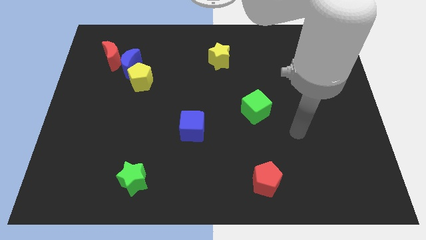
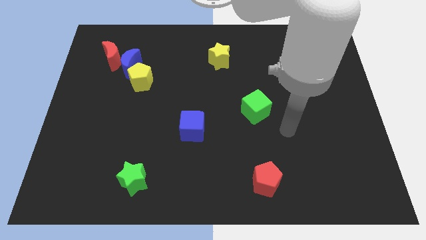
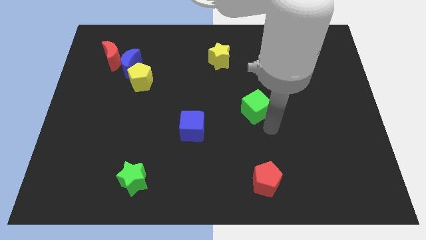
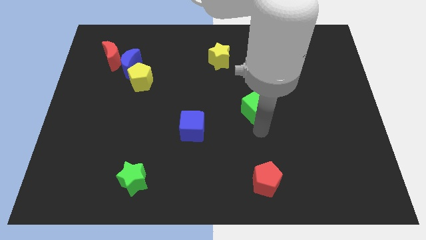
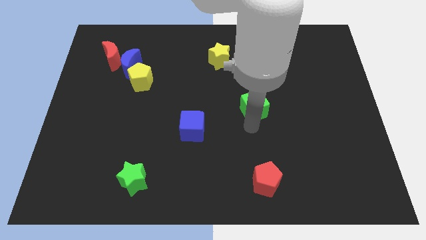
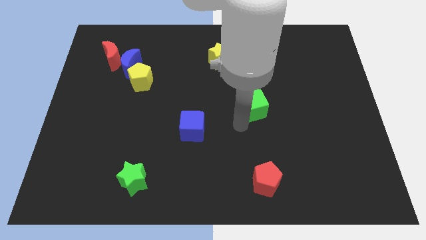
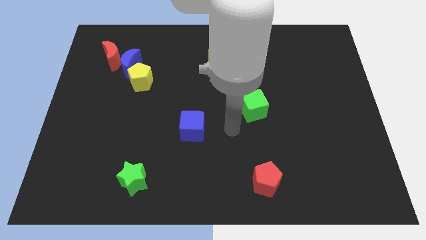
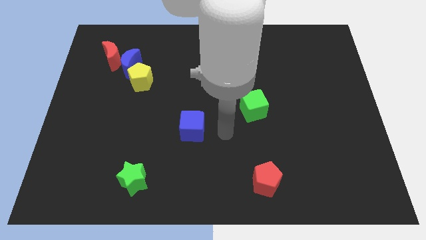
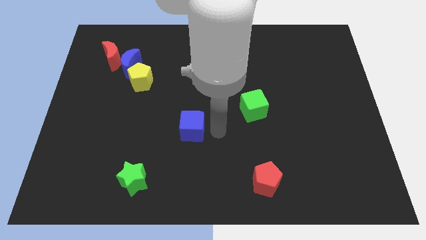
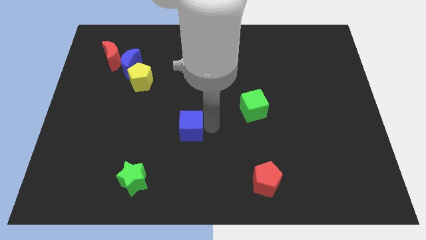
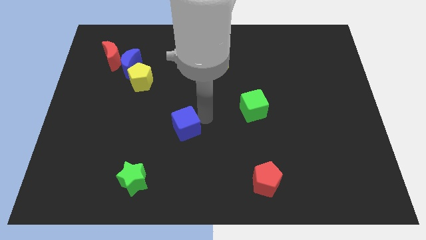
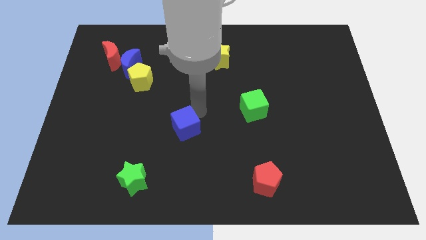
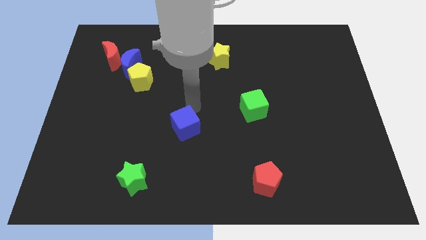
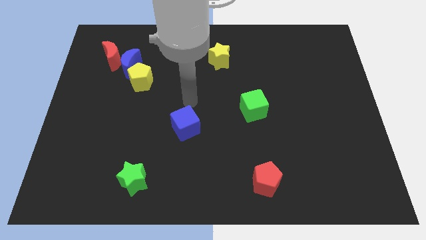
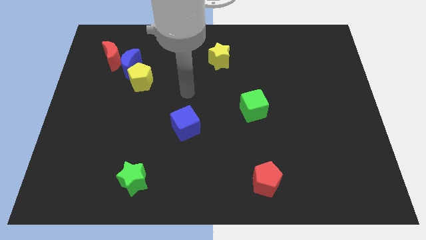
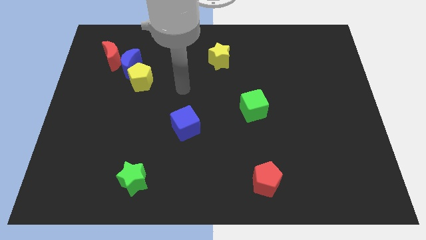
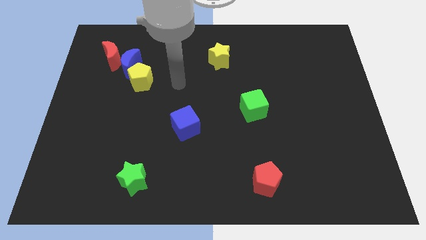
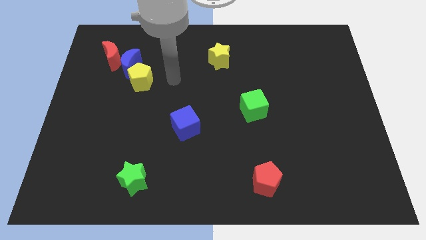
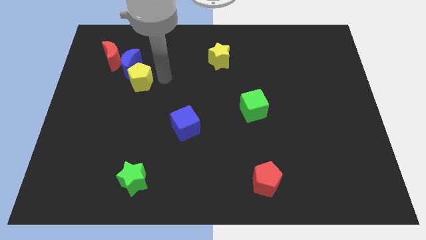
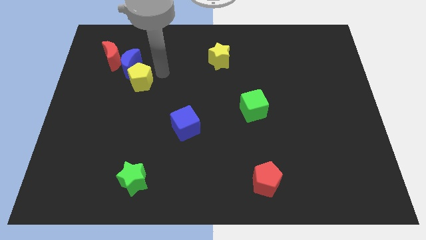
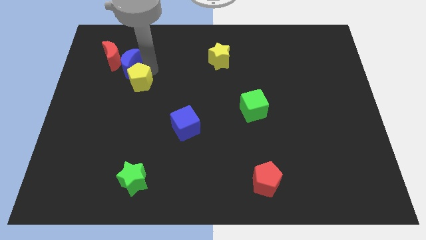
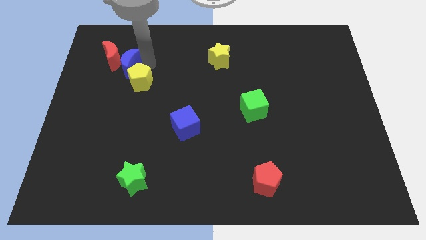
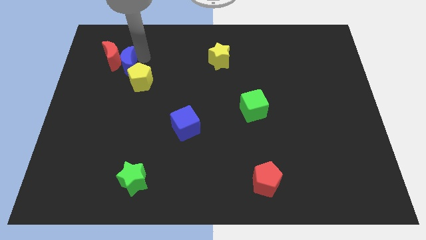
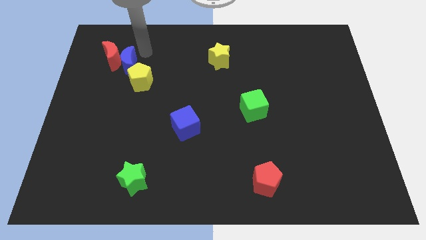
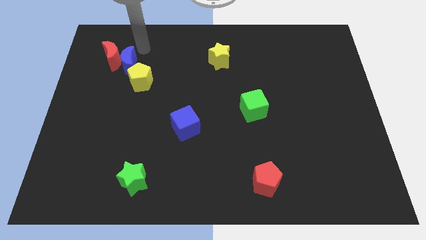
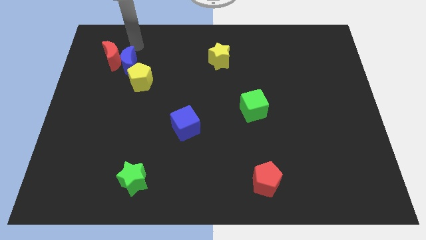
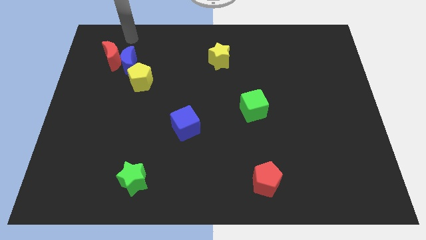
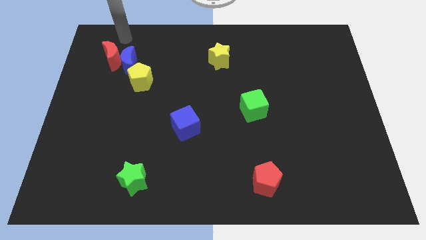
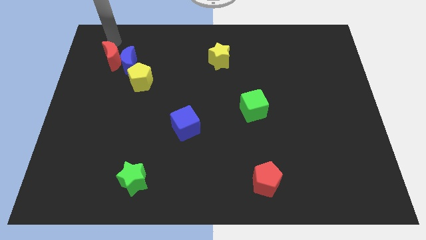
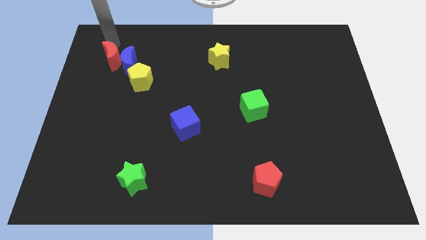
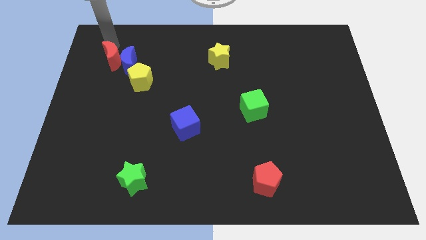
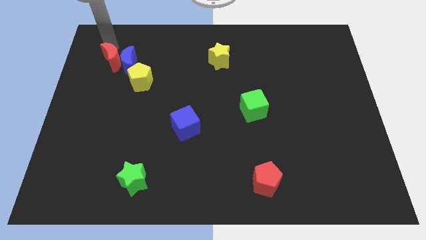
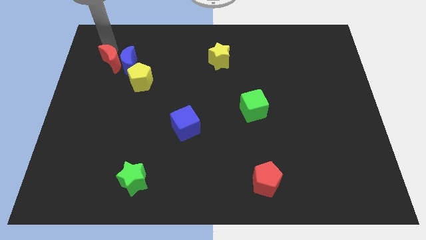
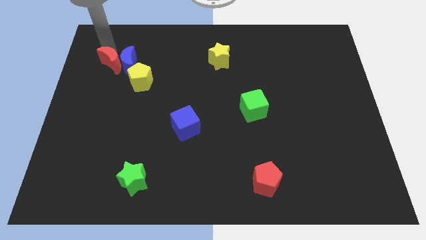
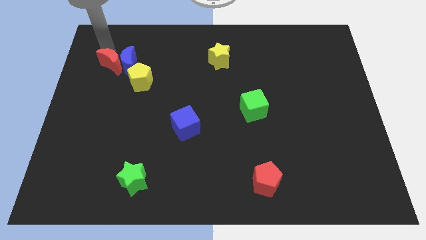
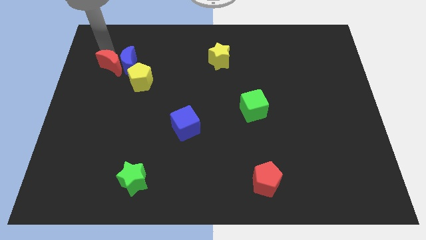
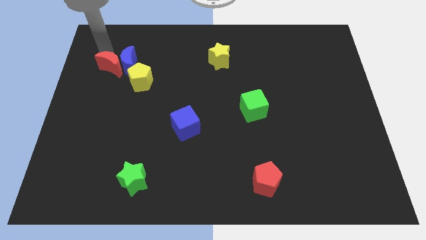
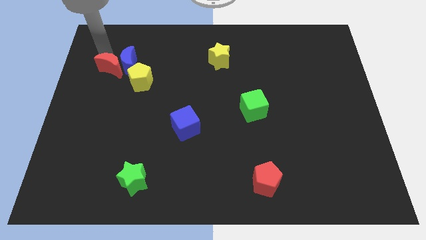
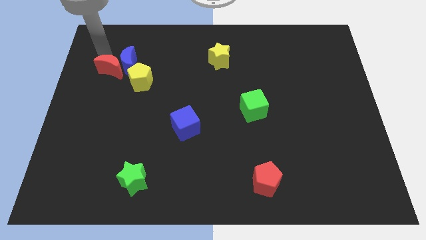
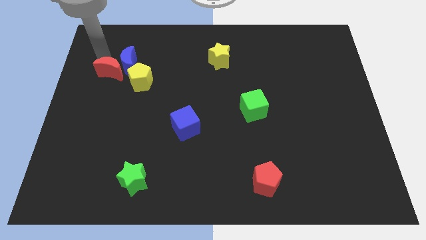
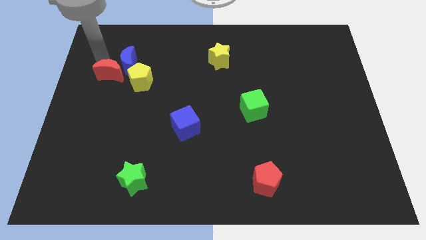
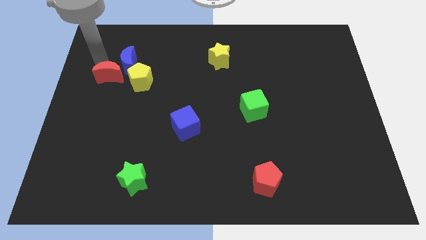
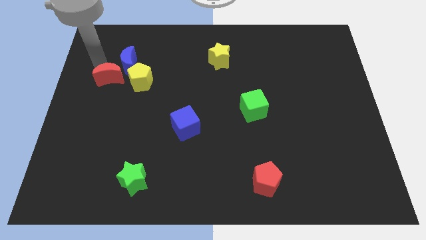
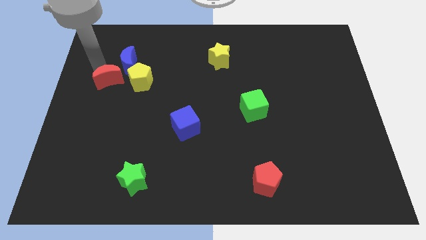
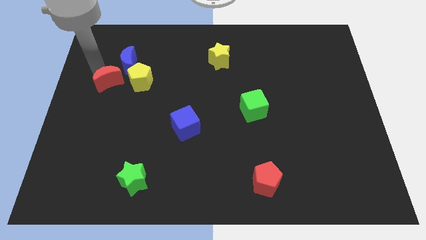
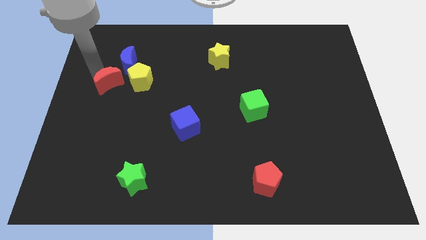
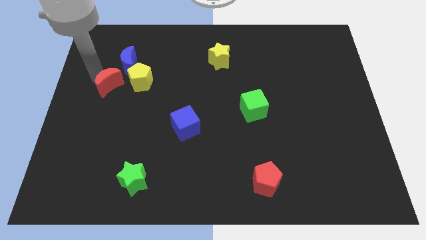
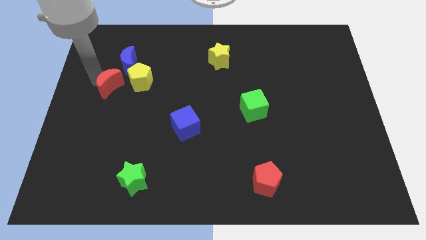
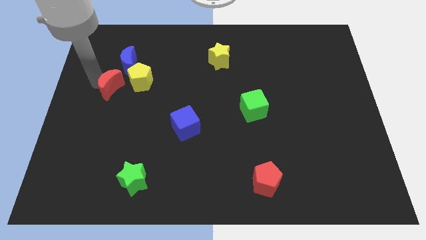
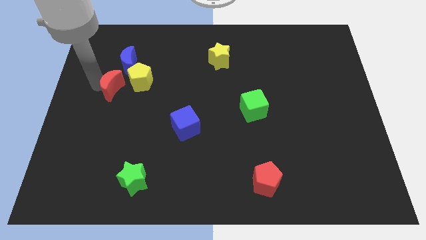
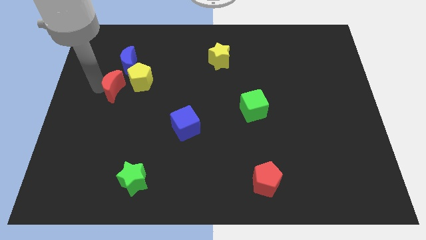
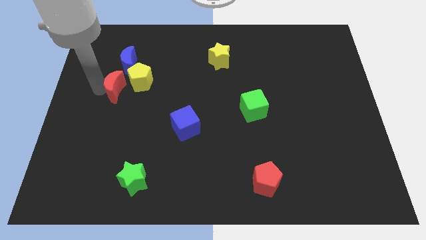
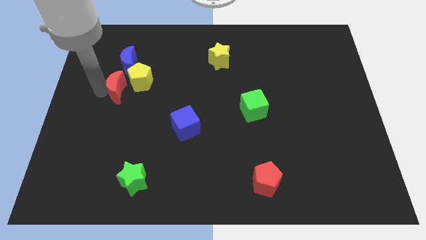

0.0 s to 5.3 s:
put the red moon next to the yellow pentagon

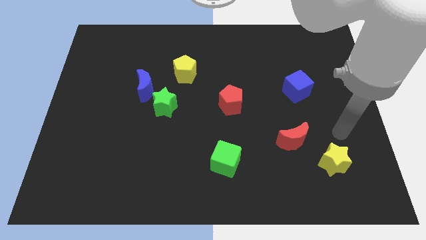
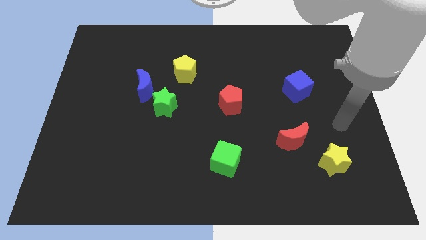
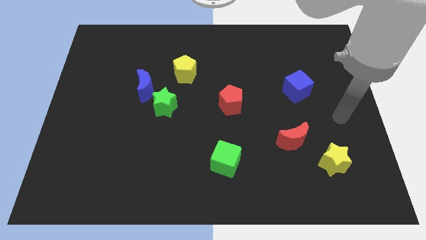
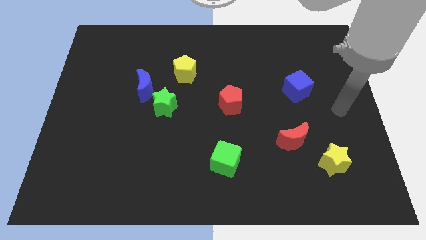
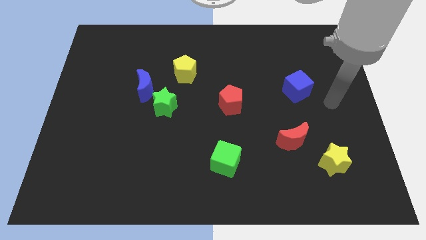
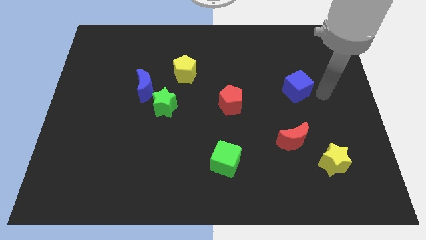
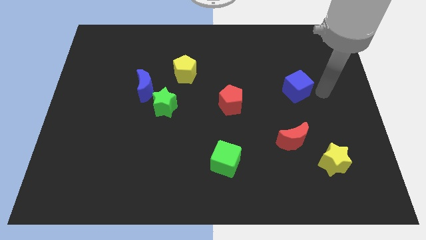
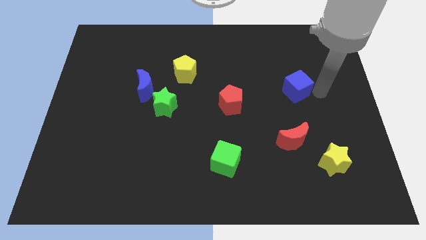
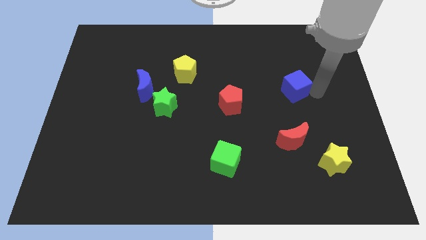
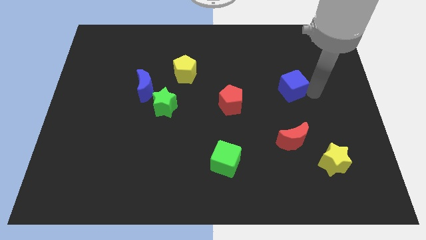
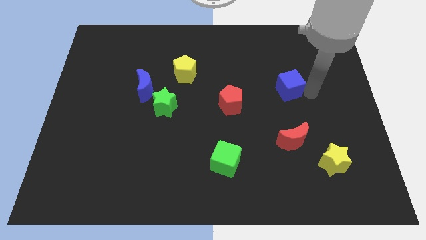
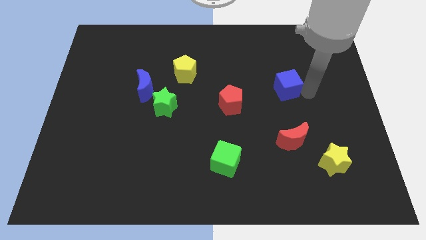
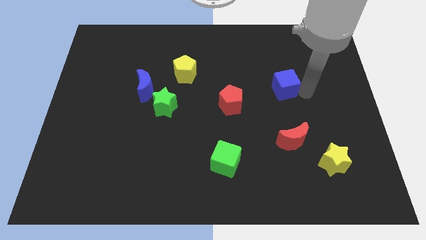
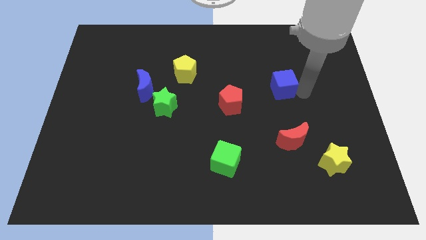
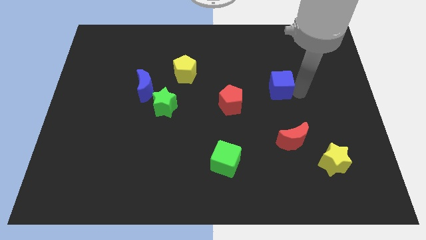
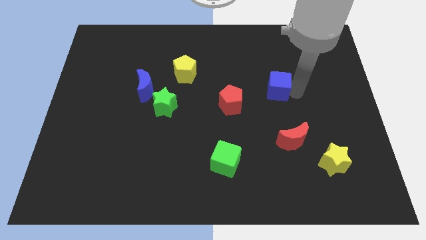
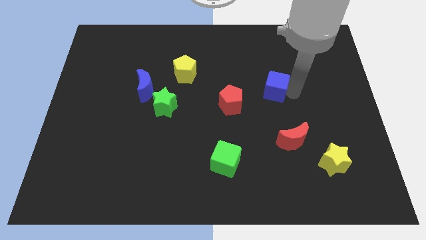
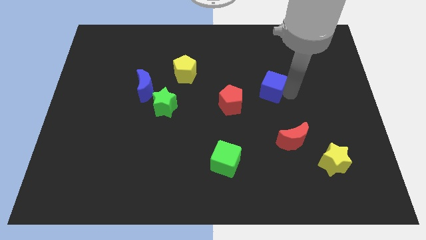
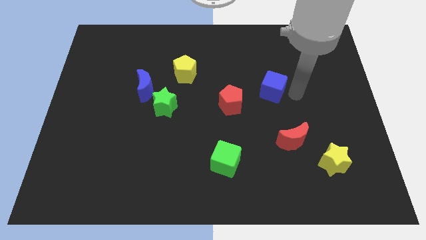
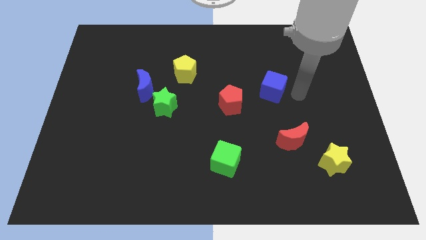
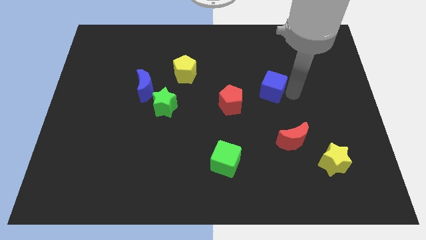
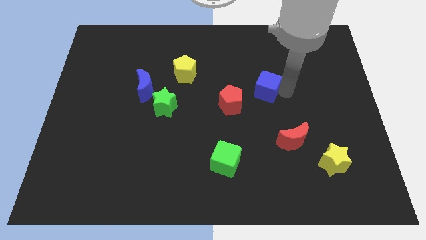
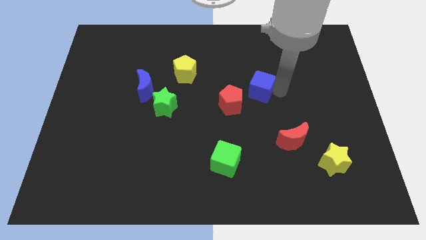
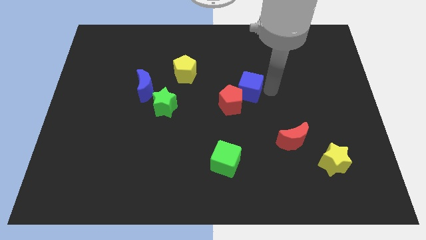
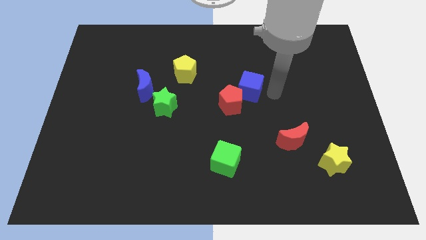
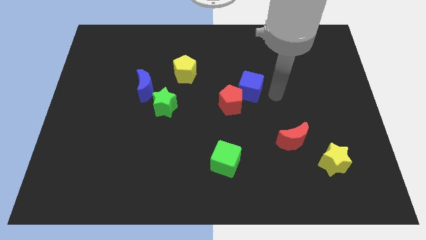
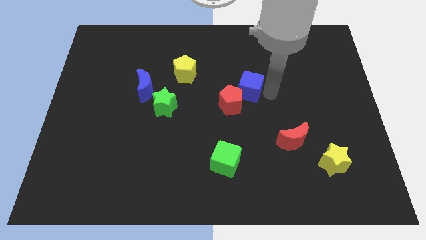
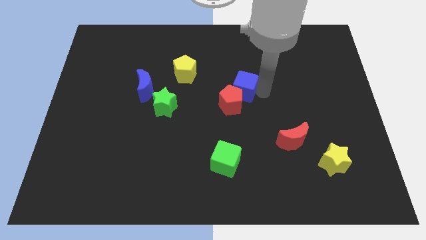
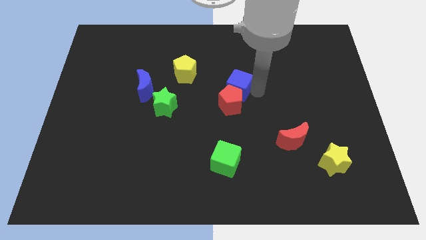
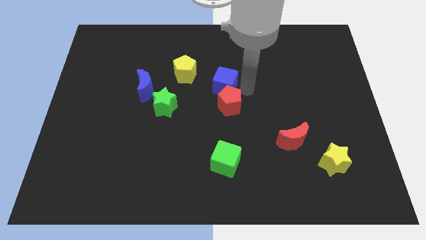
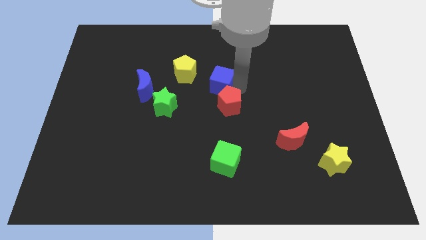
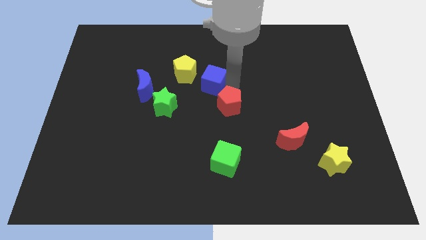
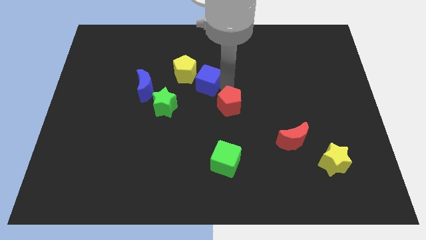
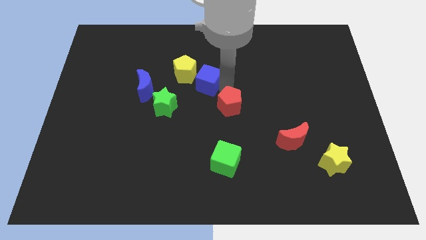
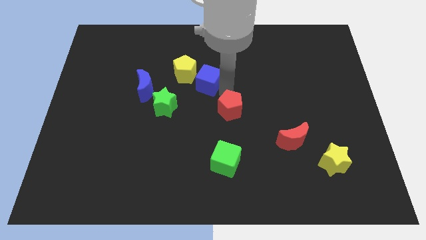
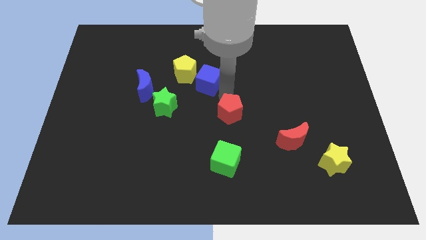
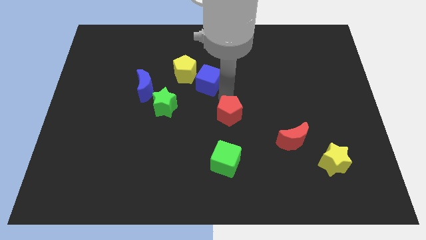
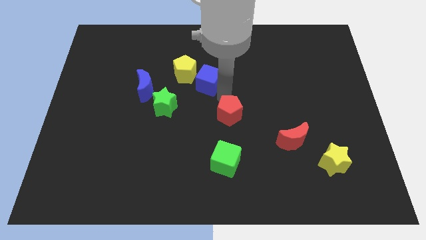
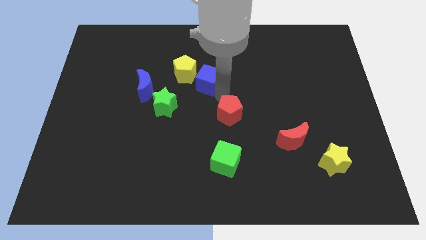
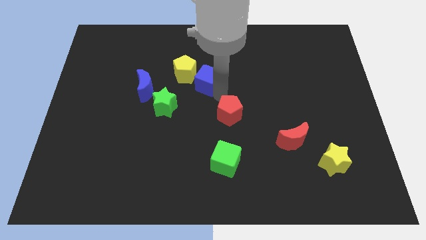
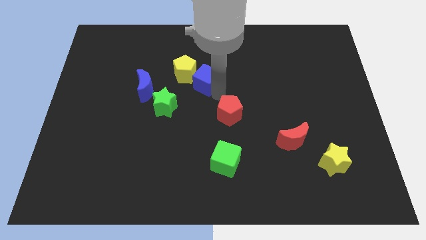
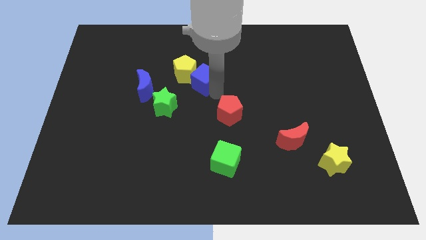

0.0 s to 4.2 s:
put the blue cube next to the yellow pentagon
